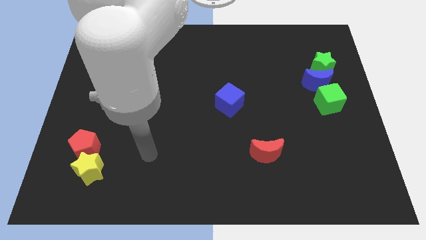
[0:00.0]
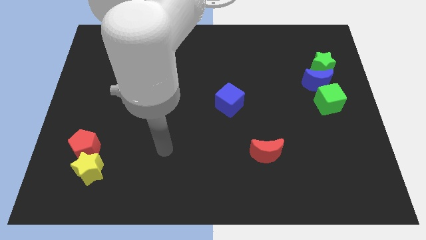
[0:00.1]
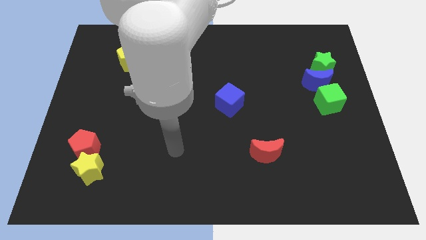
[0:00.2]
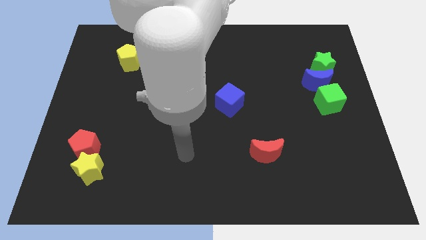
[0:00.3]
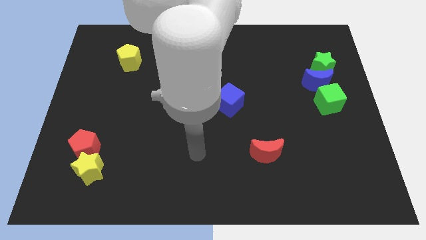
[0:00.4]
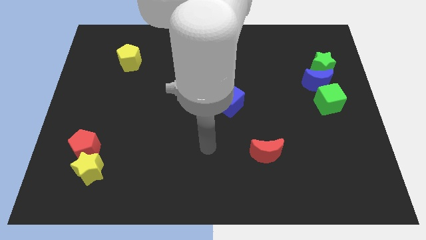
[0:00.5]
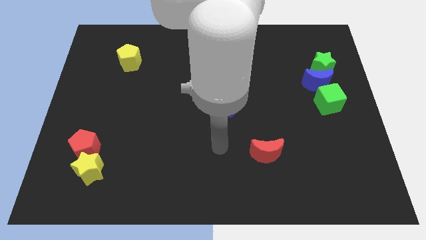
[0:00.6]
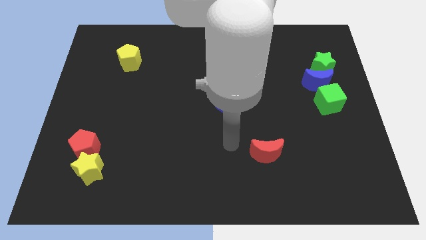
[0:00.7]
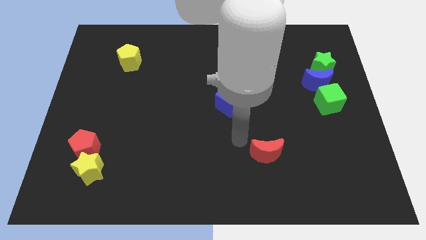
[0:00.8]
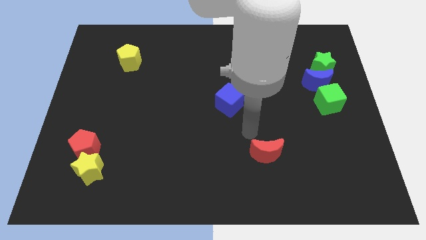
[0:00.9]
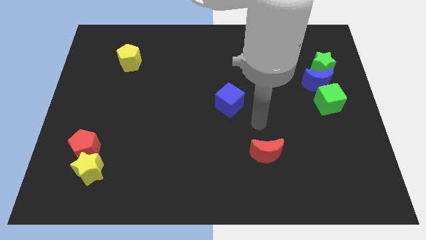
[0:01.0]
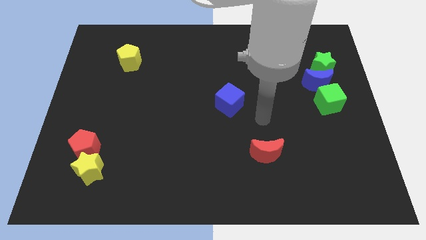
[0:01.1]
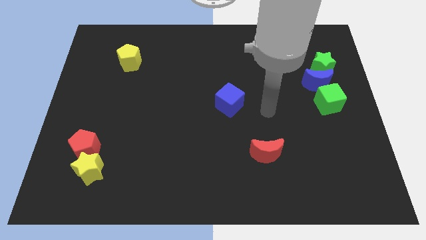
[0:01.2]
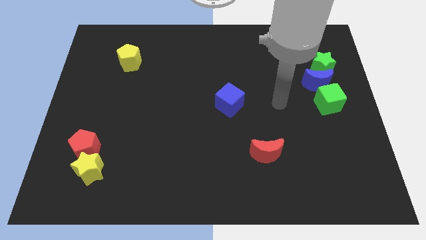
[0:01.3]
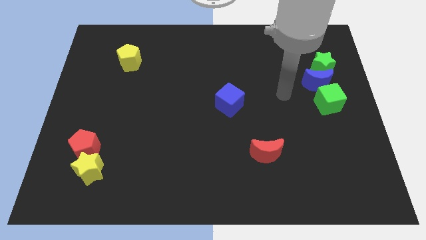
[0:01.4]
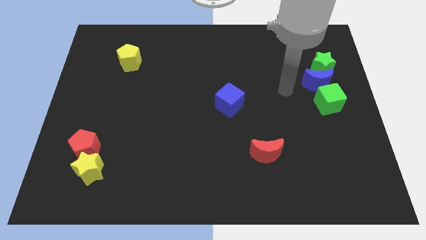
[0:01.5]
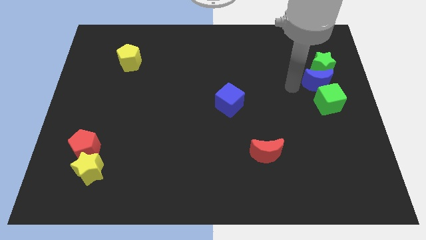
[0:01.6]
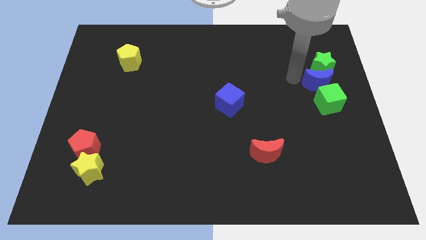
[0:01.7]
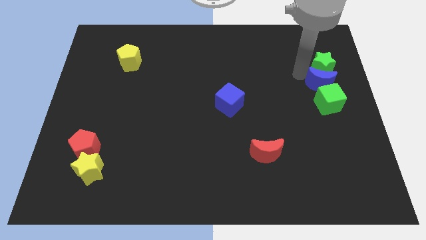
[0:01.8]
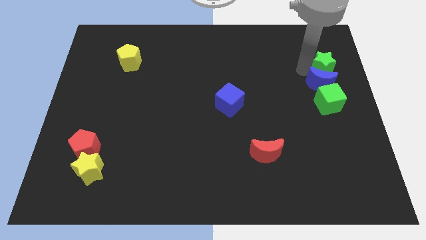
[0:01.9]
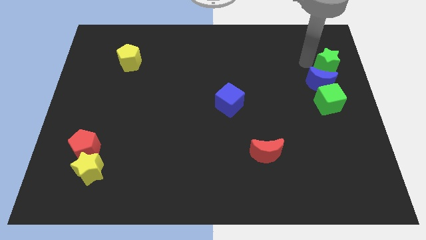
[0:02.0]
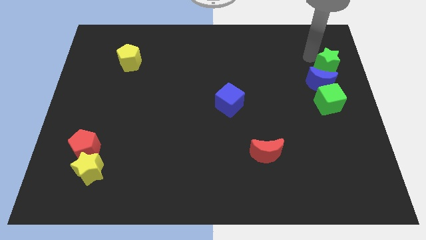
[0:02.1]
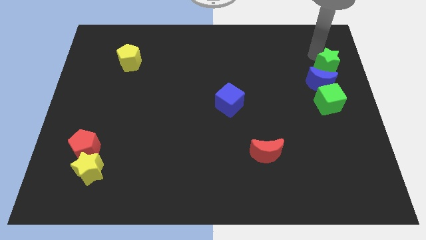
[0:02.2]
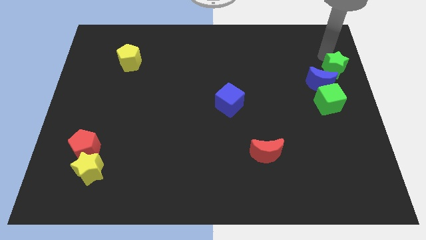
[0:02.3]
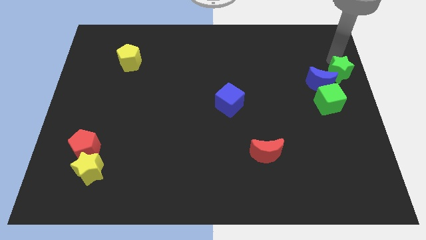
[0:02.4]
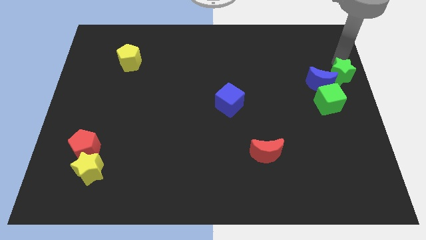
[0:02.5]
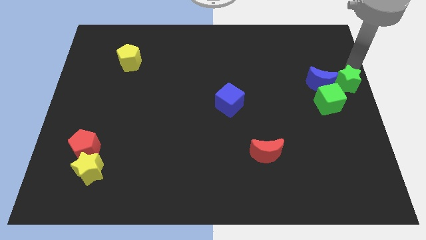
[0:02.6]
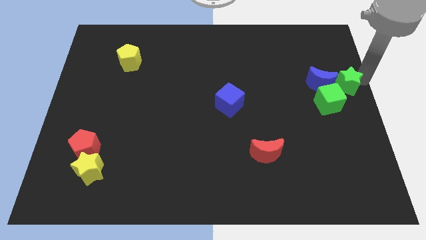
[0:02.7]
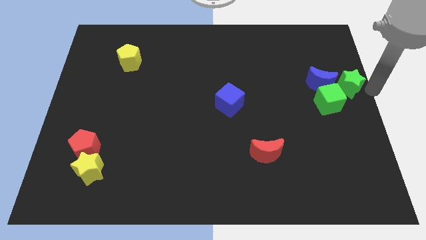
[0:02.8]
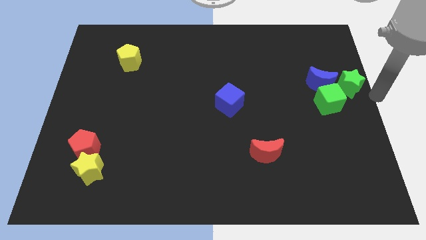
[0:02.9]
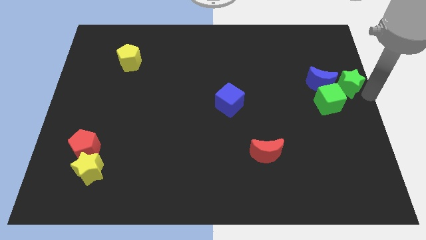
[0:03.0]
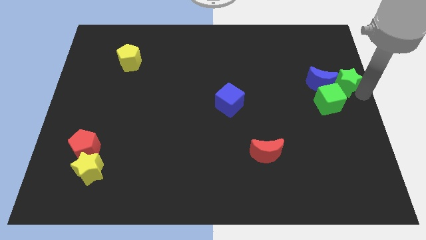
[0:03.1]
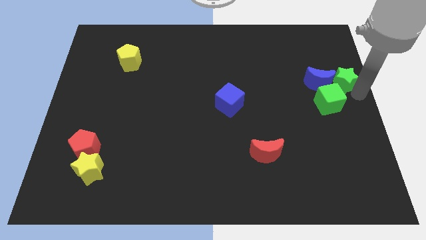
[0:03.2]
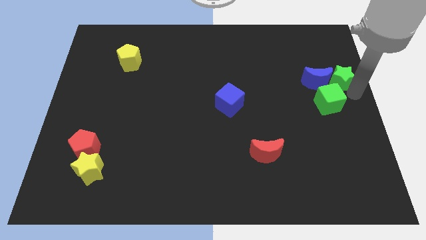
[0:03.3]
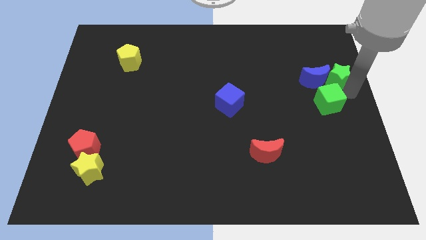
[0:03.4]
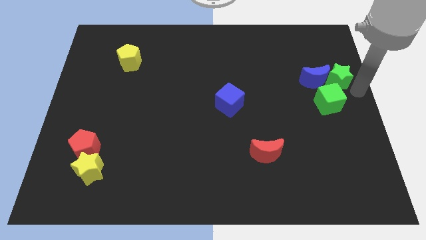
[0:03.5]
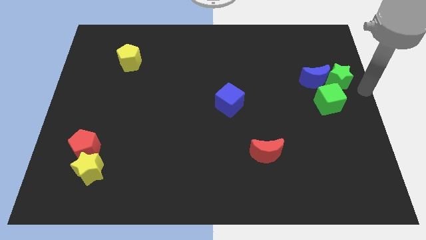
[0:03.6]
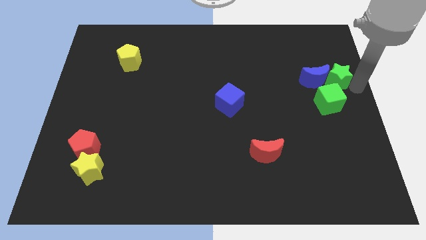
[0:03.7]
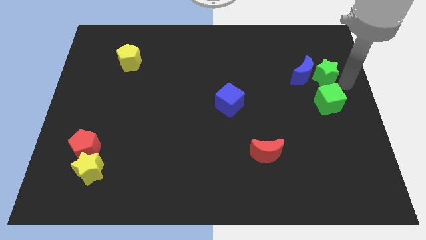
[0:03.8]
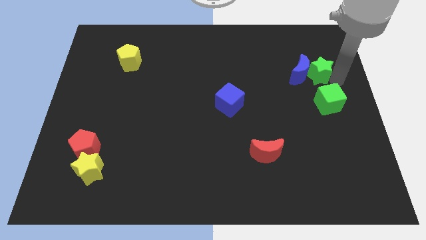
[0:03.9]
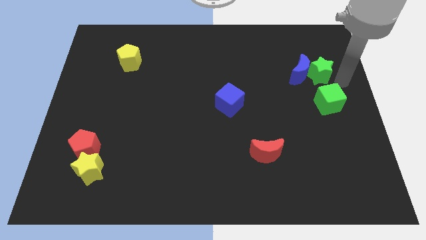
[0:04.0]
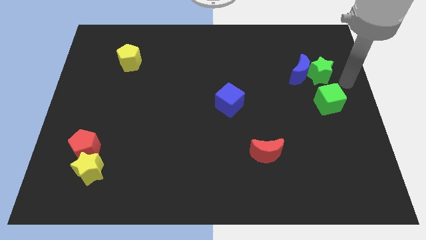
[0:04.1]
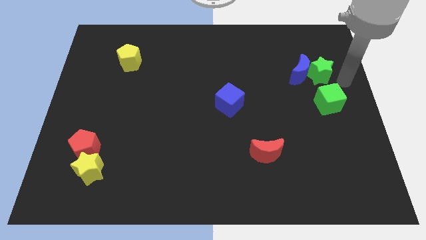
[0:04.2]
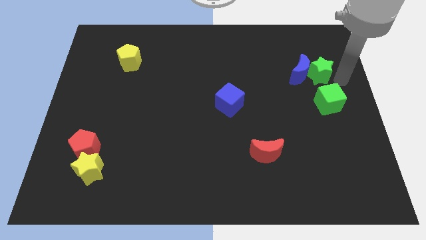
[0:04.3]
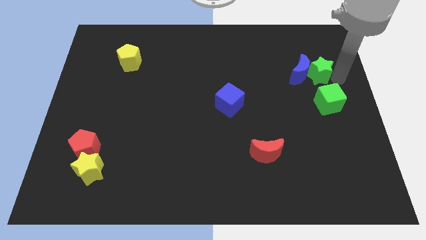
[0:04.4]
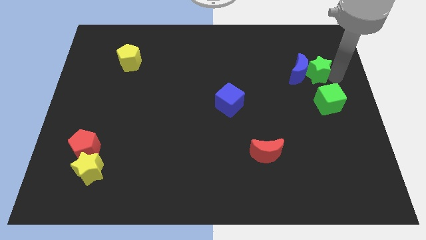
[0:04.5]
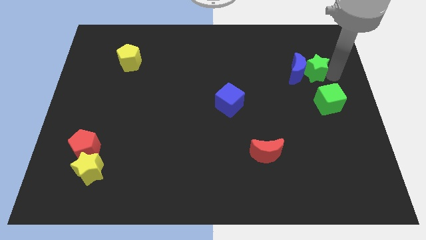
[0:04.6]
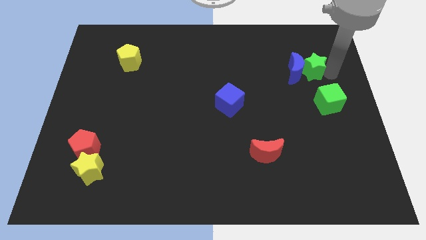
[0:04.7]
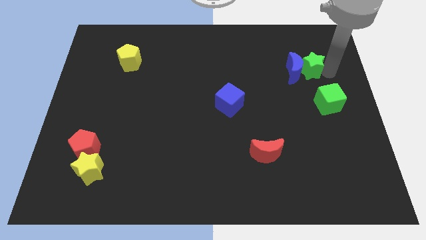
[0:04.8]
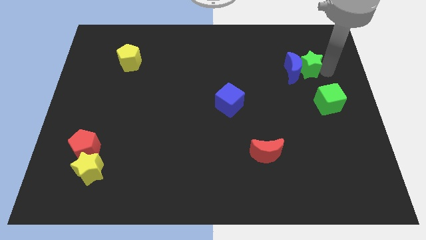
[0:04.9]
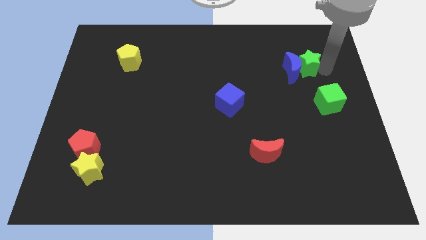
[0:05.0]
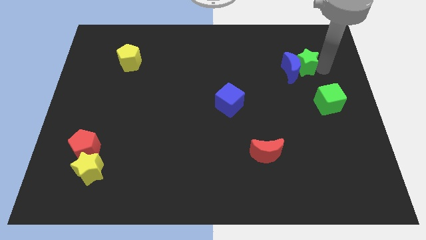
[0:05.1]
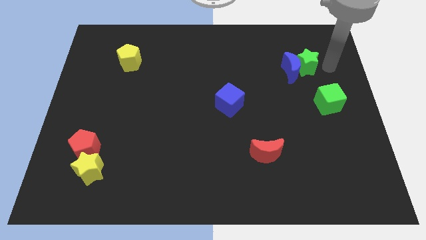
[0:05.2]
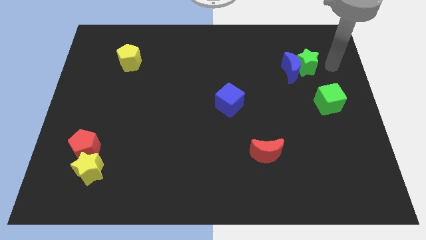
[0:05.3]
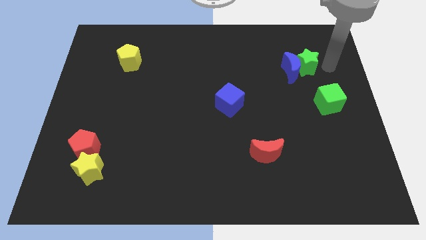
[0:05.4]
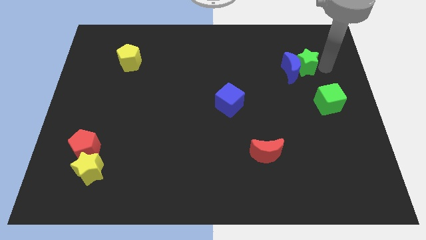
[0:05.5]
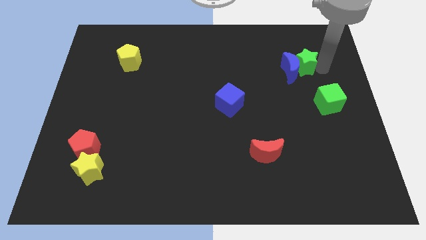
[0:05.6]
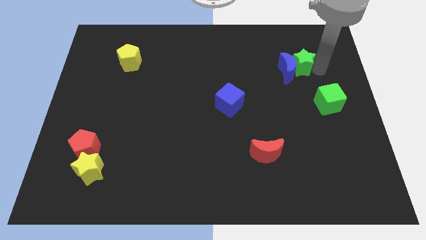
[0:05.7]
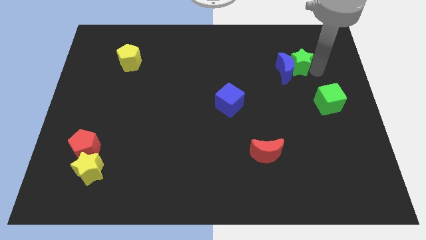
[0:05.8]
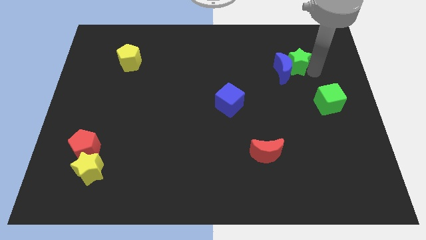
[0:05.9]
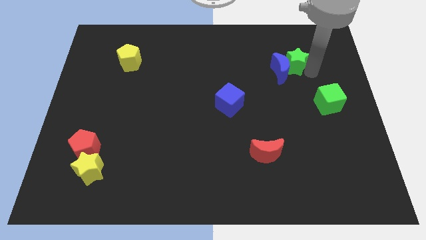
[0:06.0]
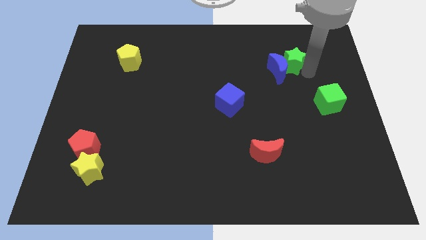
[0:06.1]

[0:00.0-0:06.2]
slightly slide the green star to the left

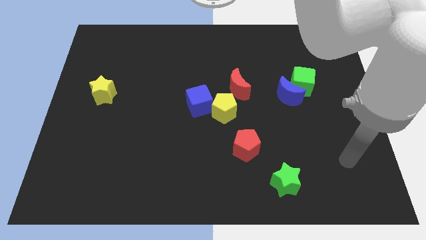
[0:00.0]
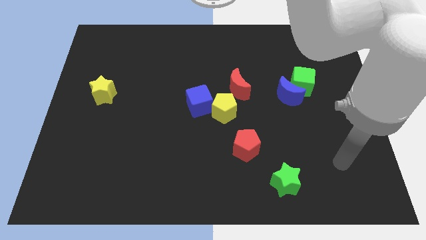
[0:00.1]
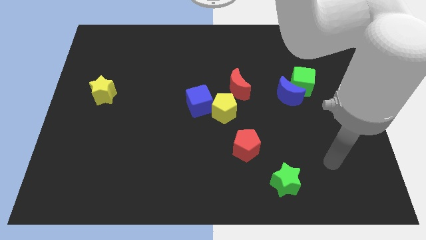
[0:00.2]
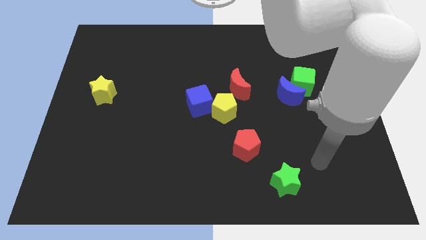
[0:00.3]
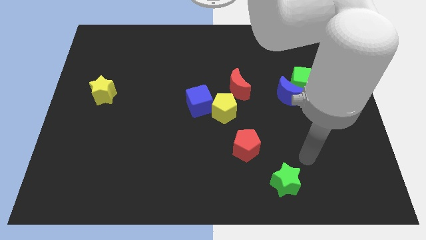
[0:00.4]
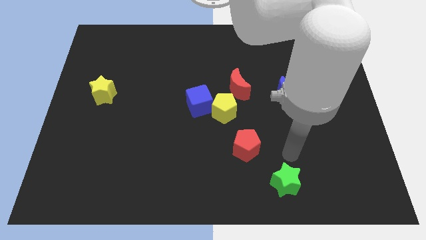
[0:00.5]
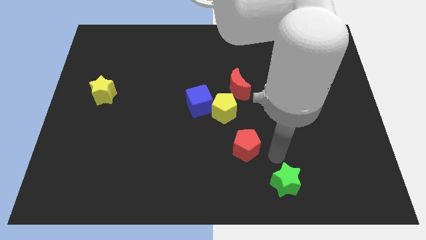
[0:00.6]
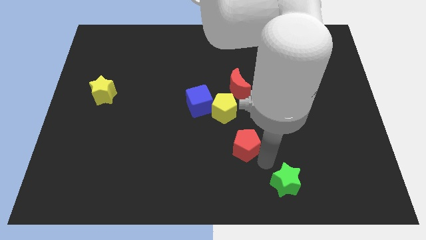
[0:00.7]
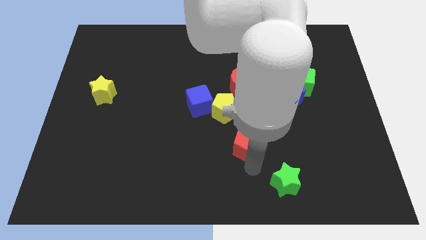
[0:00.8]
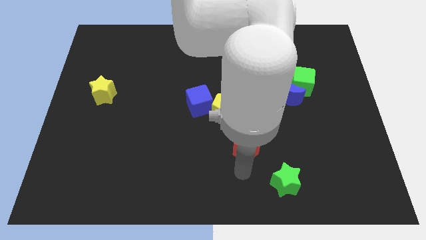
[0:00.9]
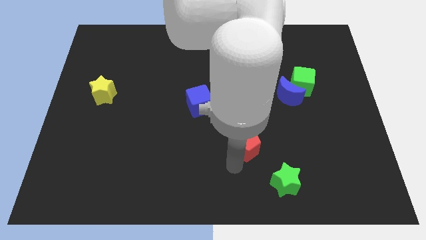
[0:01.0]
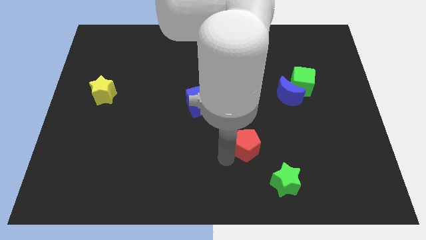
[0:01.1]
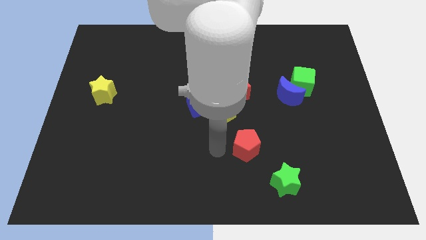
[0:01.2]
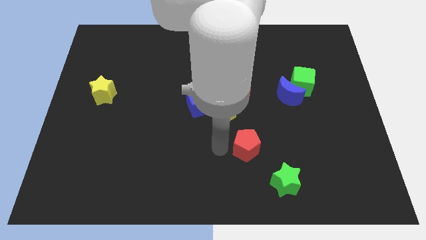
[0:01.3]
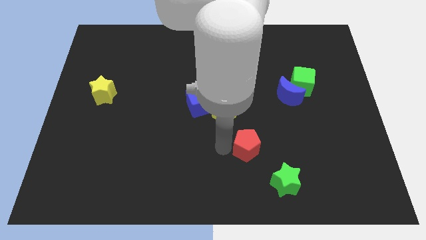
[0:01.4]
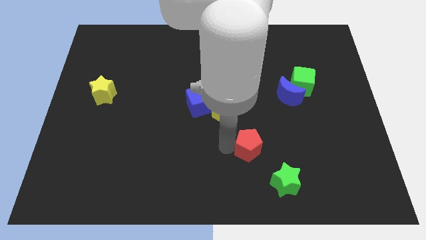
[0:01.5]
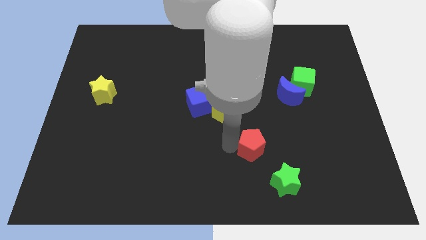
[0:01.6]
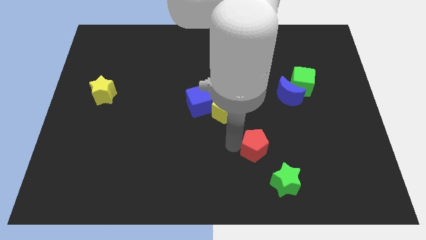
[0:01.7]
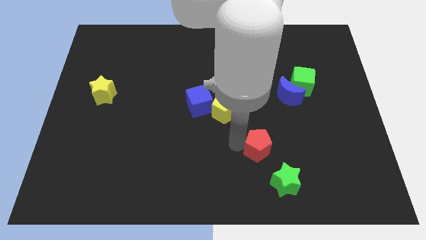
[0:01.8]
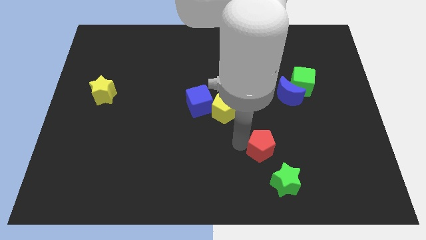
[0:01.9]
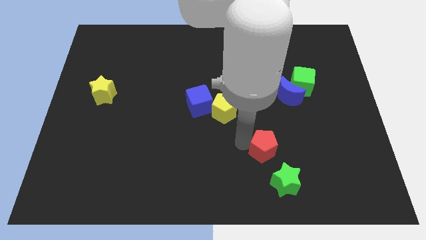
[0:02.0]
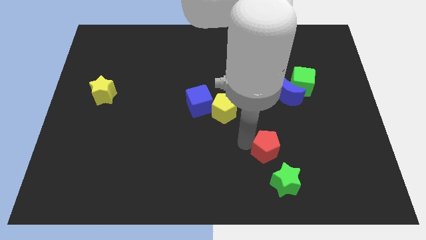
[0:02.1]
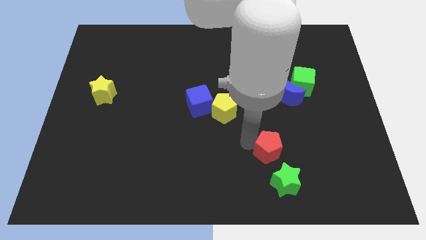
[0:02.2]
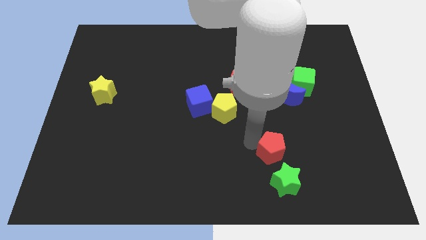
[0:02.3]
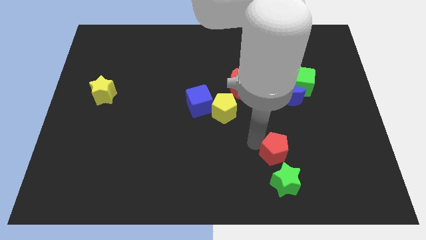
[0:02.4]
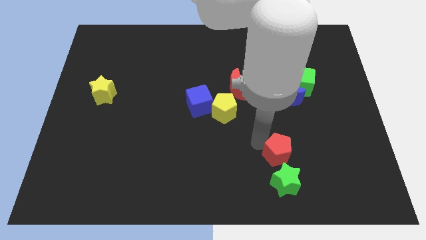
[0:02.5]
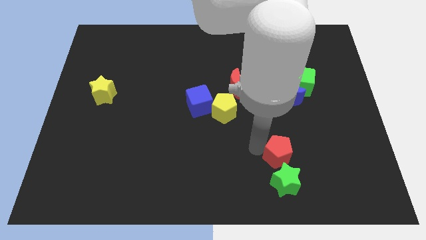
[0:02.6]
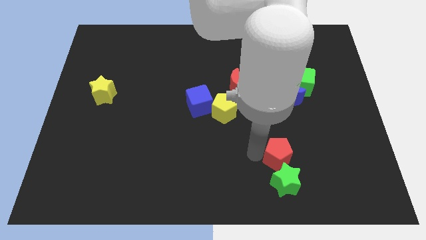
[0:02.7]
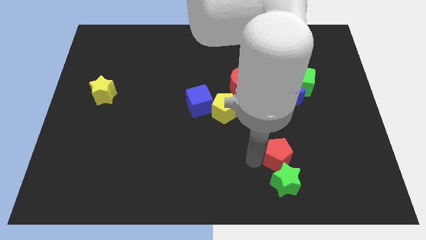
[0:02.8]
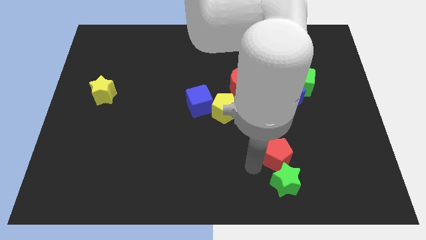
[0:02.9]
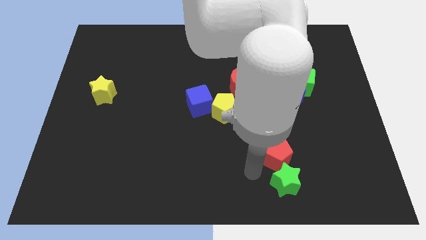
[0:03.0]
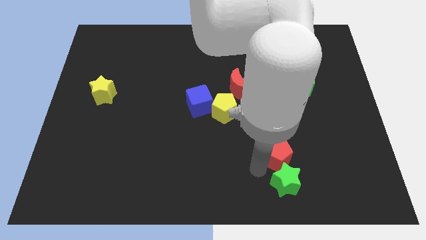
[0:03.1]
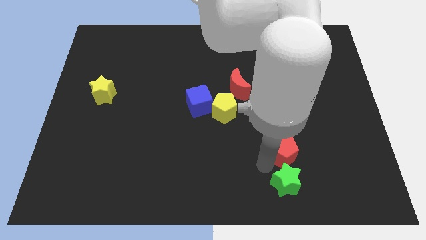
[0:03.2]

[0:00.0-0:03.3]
slightly slide the red pentagon right
